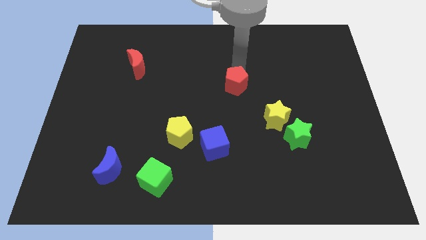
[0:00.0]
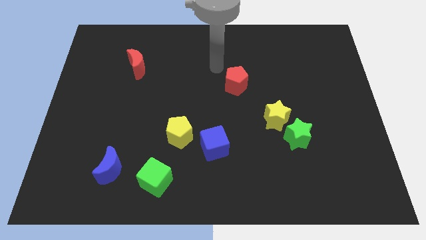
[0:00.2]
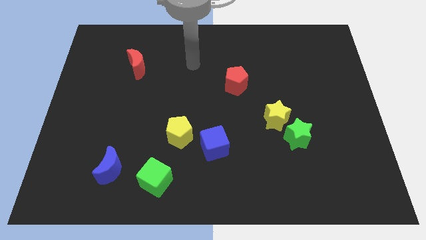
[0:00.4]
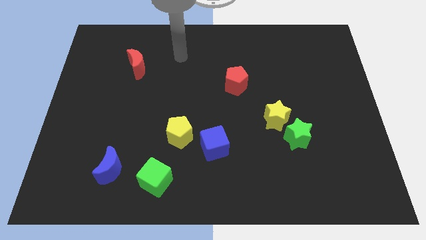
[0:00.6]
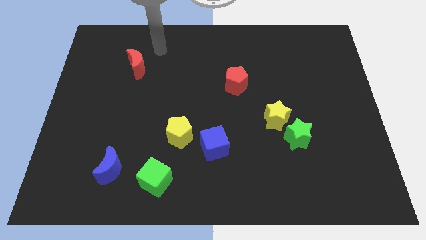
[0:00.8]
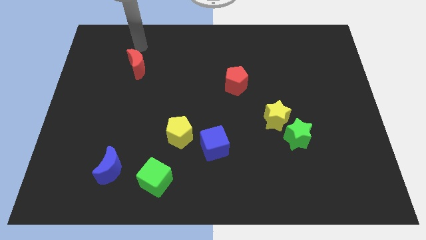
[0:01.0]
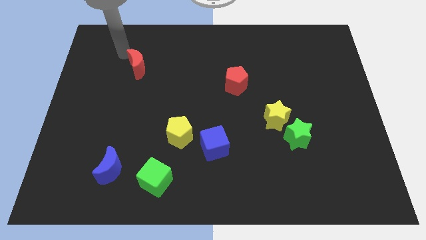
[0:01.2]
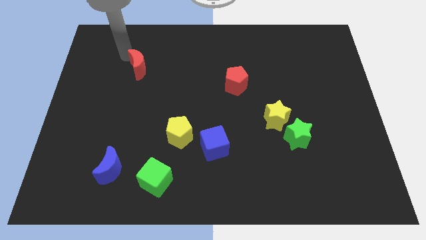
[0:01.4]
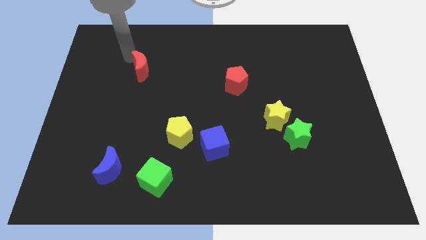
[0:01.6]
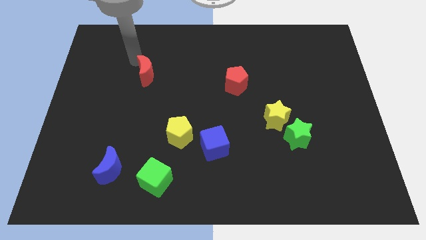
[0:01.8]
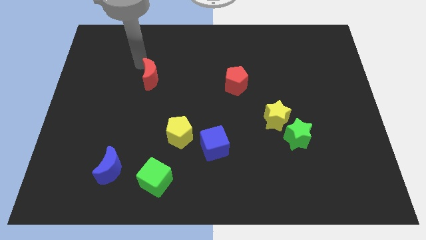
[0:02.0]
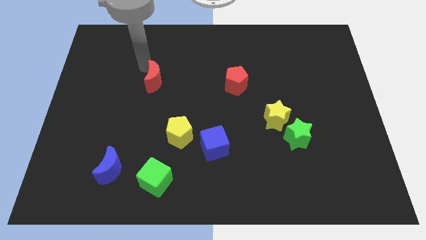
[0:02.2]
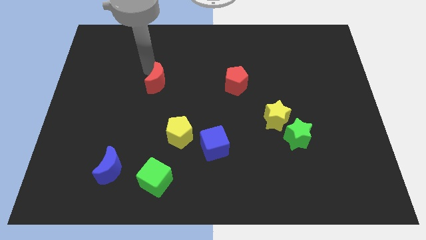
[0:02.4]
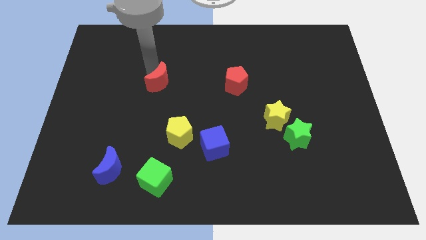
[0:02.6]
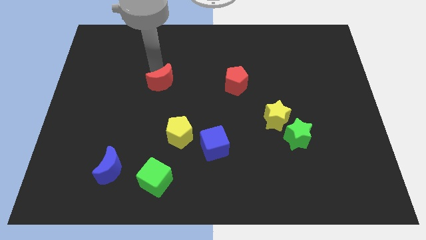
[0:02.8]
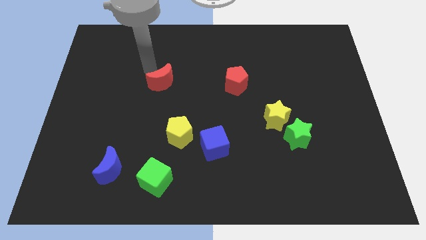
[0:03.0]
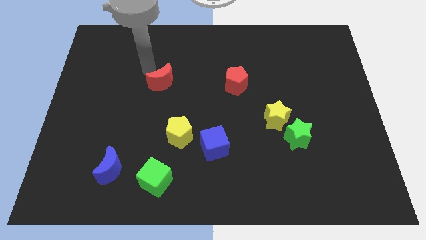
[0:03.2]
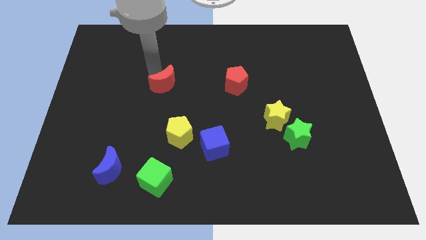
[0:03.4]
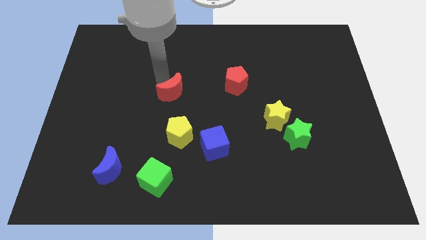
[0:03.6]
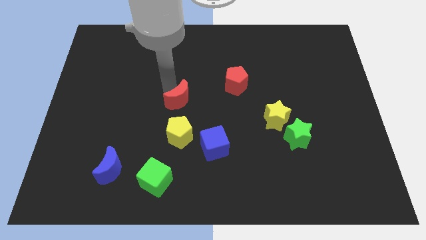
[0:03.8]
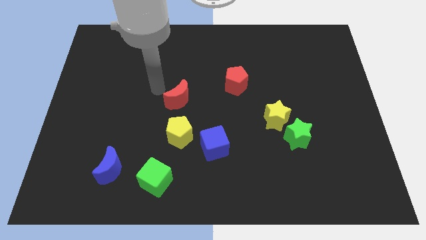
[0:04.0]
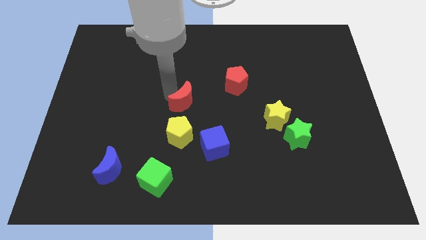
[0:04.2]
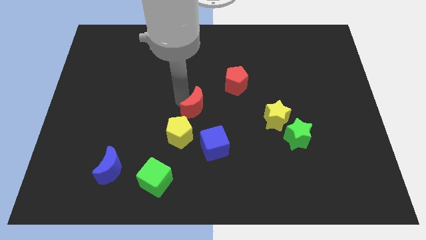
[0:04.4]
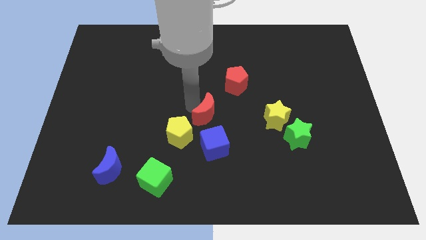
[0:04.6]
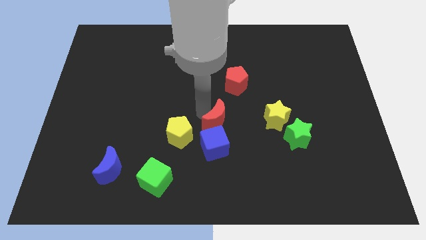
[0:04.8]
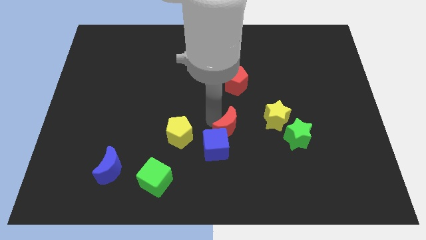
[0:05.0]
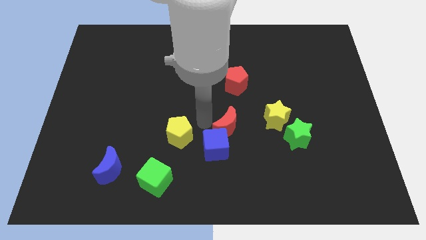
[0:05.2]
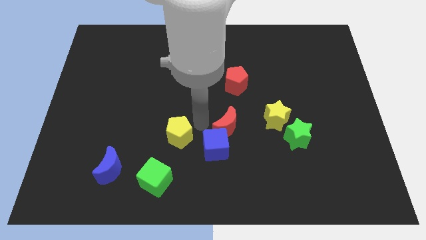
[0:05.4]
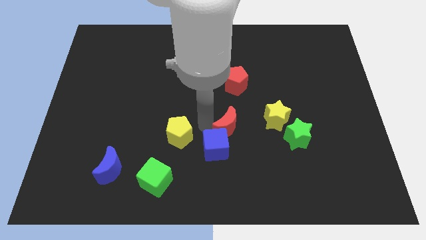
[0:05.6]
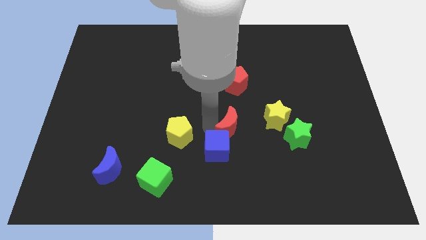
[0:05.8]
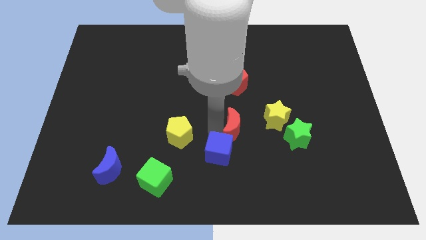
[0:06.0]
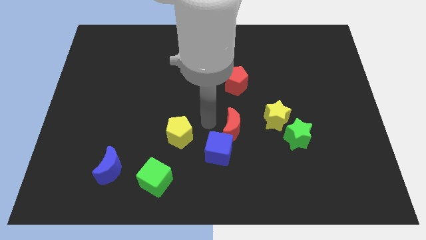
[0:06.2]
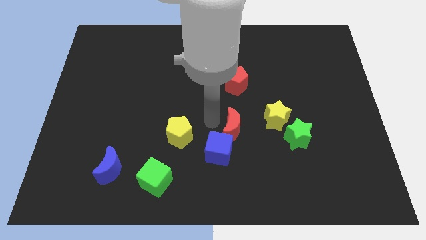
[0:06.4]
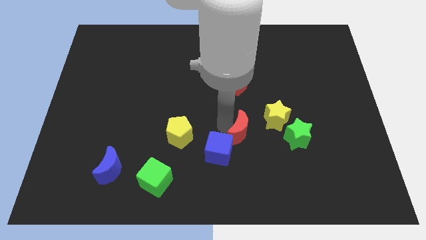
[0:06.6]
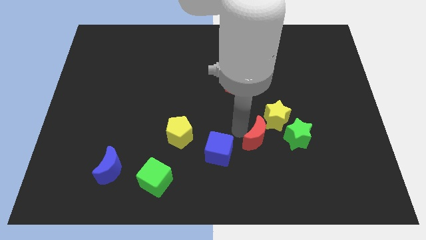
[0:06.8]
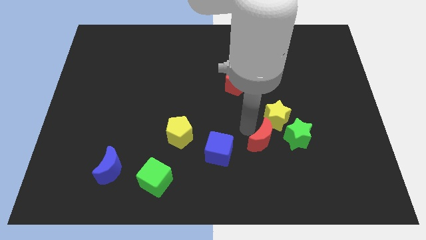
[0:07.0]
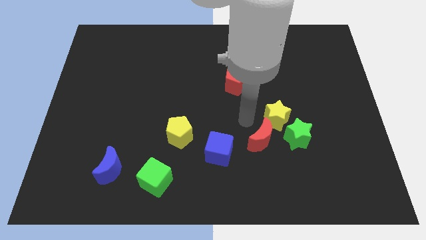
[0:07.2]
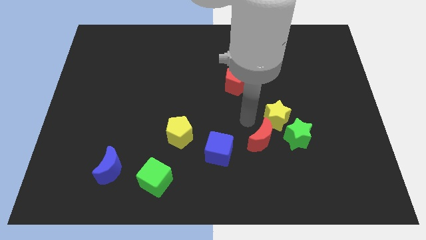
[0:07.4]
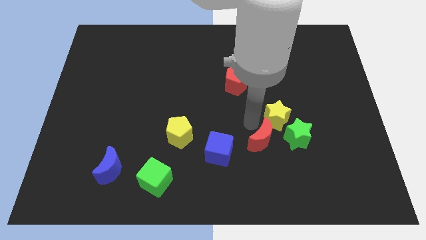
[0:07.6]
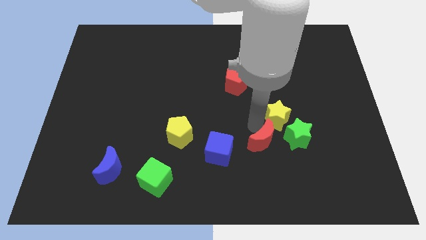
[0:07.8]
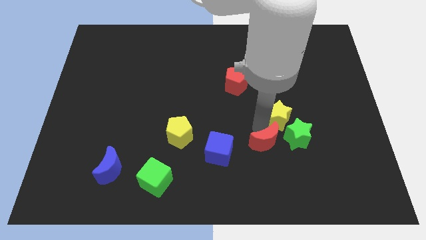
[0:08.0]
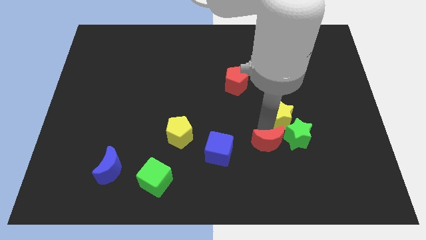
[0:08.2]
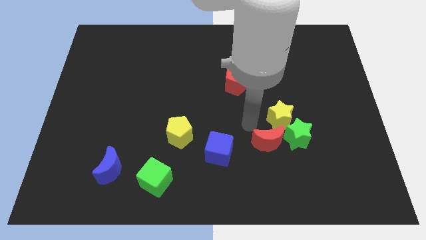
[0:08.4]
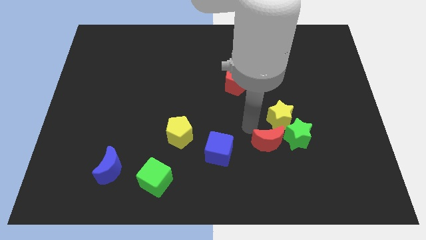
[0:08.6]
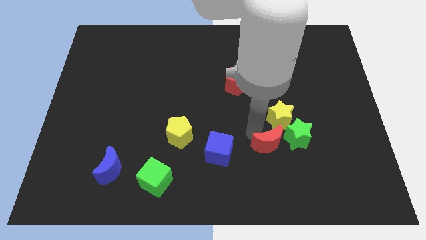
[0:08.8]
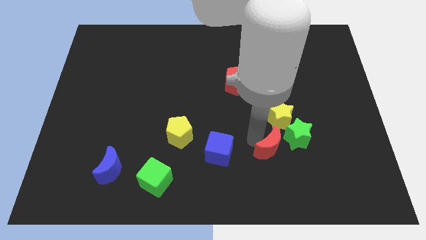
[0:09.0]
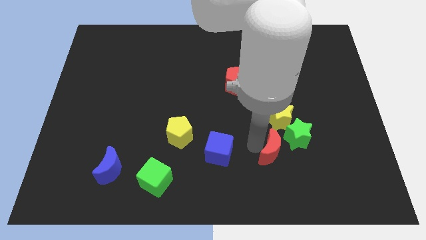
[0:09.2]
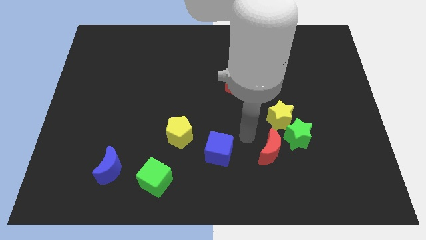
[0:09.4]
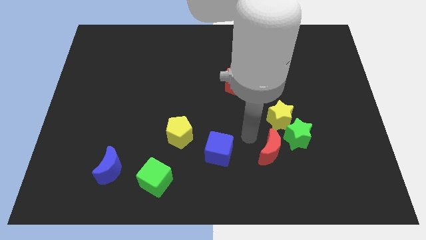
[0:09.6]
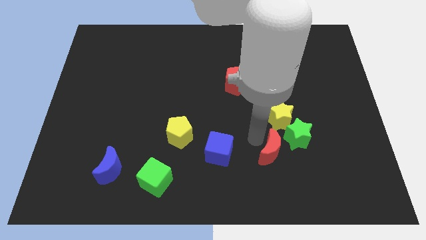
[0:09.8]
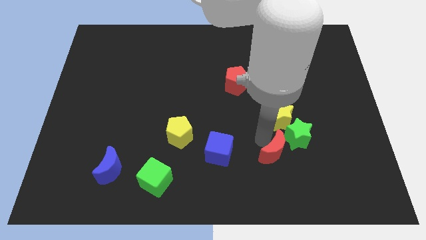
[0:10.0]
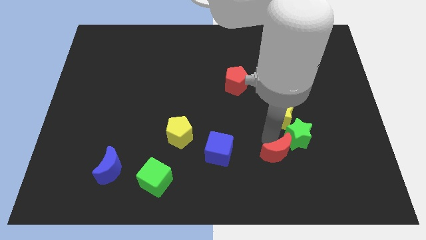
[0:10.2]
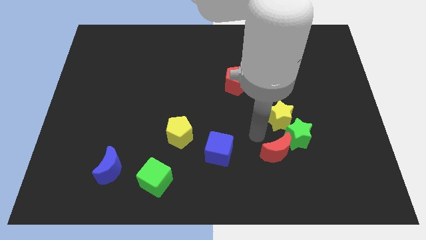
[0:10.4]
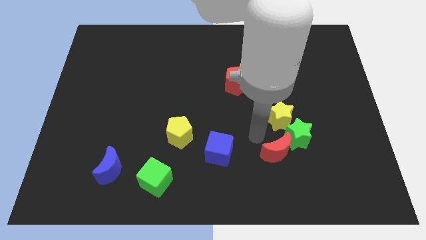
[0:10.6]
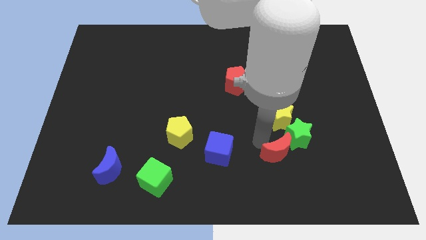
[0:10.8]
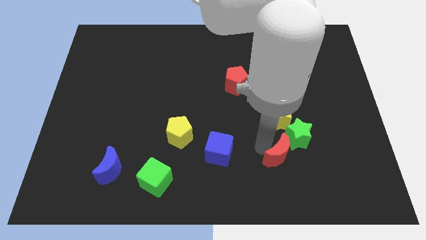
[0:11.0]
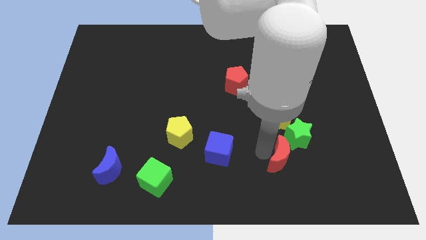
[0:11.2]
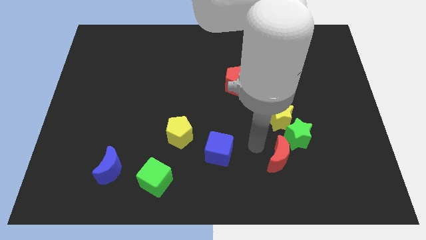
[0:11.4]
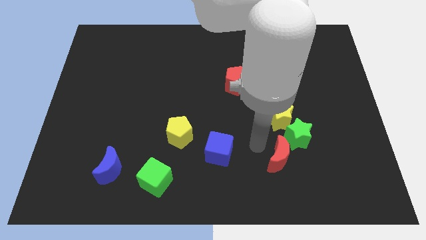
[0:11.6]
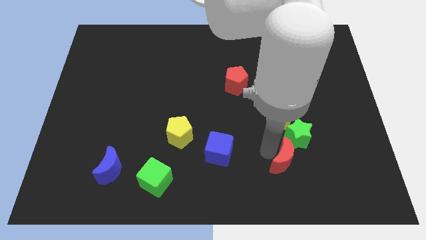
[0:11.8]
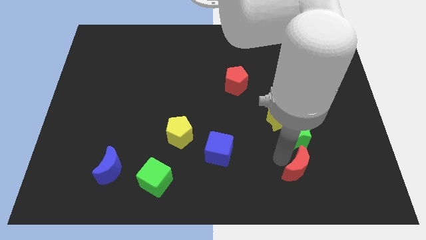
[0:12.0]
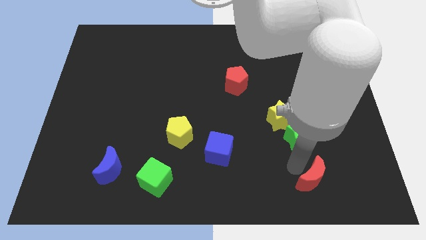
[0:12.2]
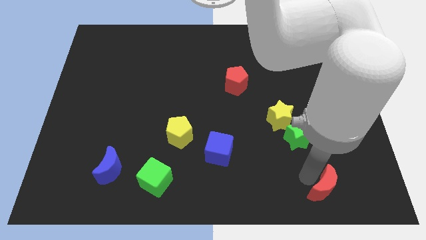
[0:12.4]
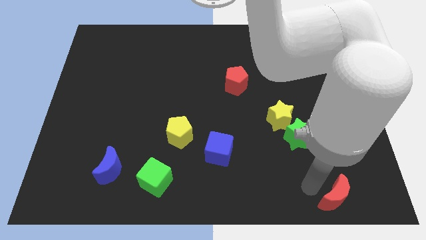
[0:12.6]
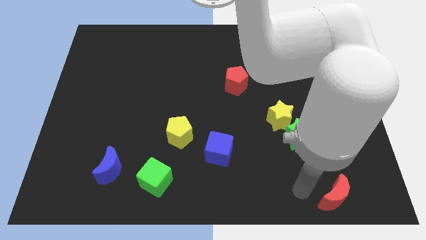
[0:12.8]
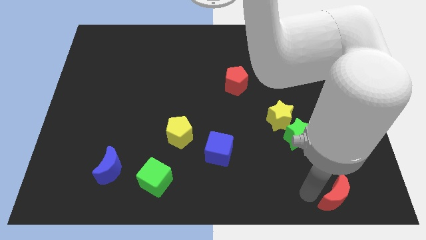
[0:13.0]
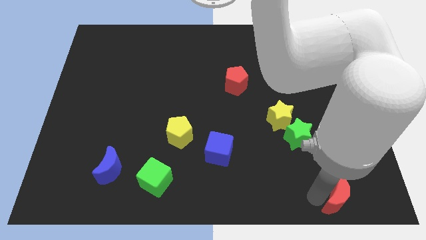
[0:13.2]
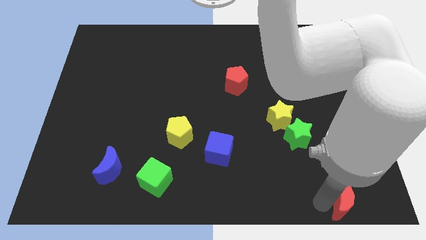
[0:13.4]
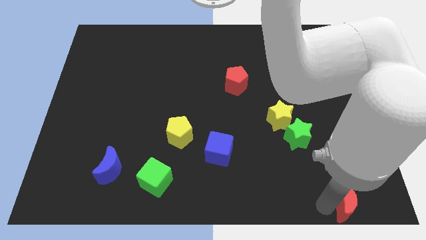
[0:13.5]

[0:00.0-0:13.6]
push the red moon to the bottom right of the board
